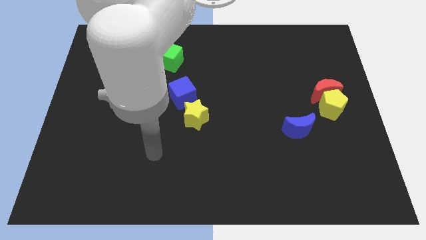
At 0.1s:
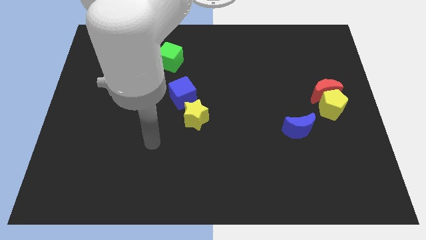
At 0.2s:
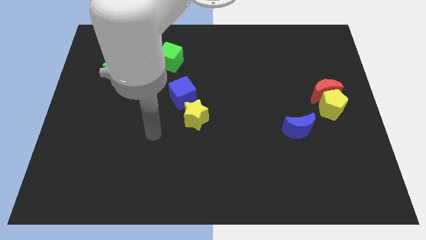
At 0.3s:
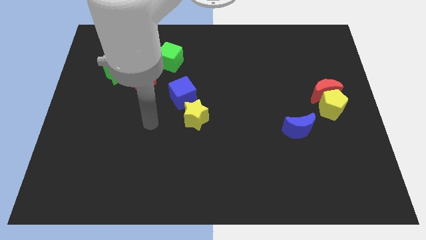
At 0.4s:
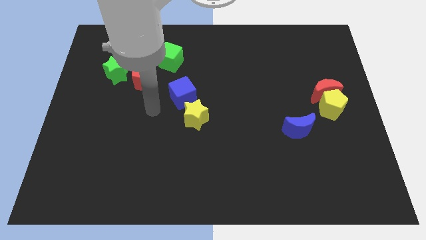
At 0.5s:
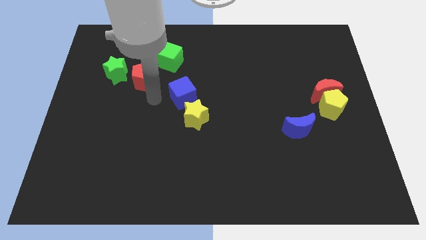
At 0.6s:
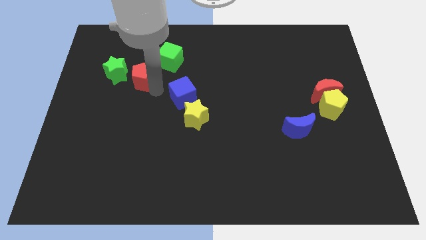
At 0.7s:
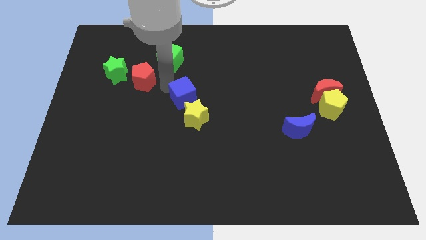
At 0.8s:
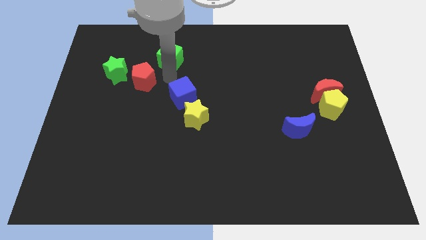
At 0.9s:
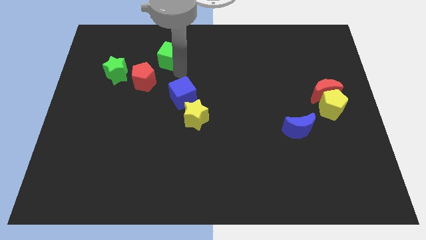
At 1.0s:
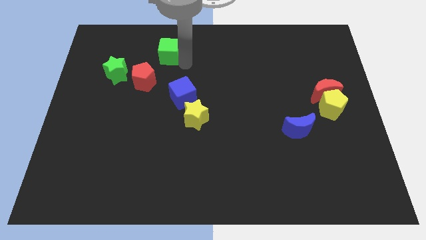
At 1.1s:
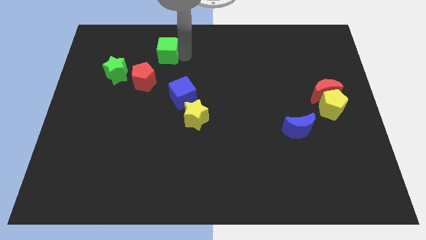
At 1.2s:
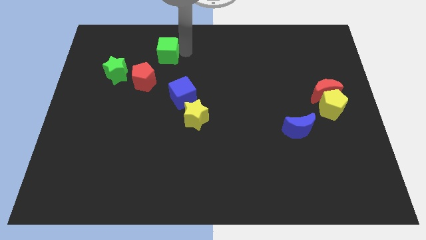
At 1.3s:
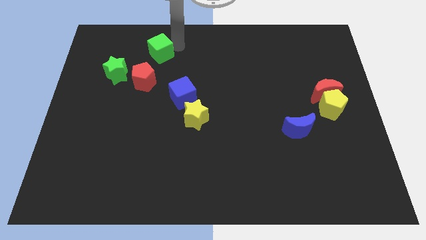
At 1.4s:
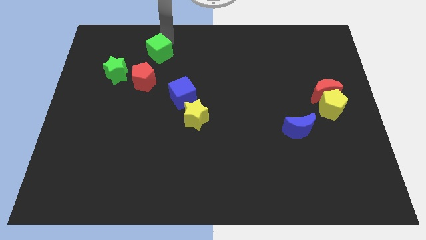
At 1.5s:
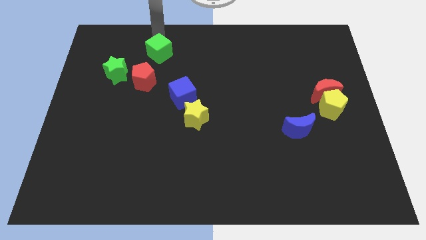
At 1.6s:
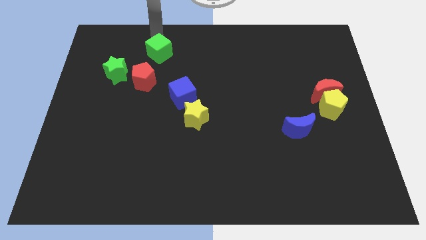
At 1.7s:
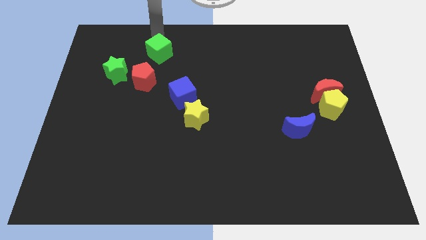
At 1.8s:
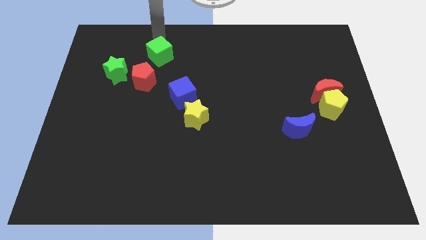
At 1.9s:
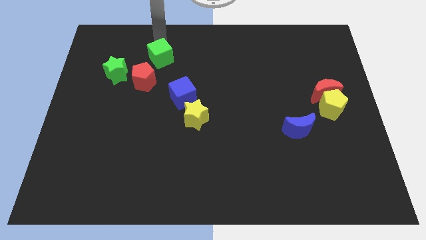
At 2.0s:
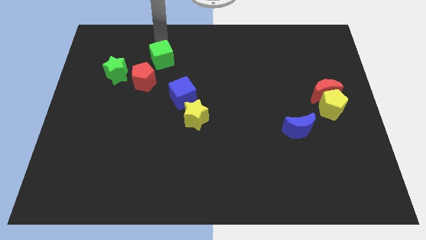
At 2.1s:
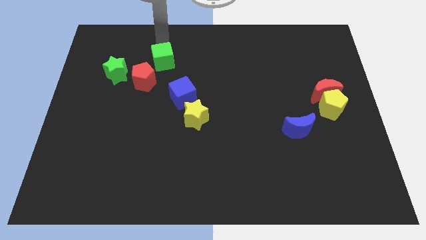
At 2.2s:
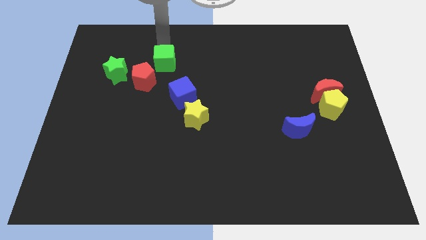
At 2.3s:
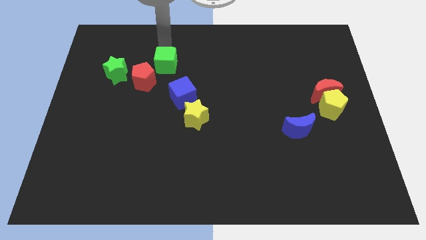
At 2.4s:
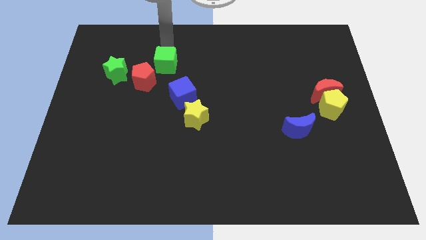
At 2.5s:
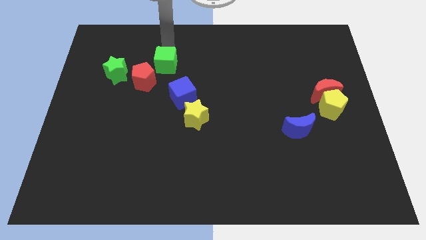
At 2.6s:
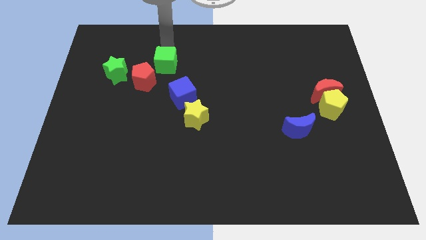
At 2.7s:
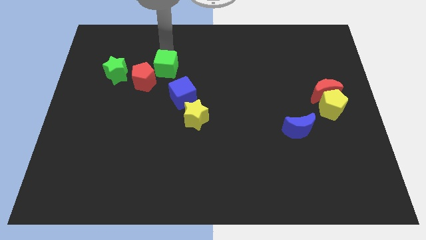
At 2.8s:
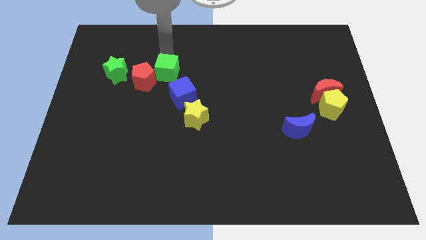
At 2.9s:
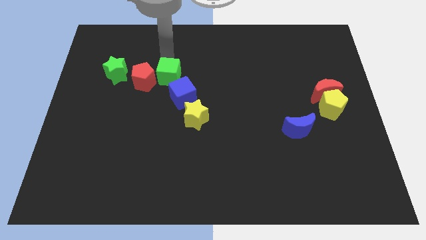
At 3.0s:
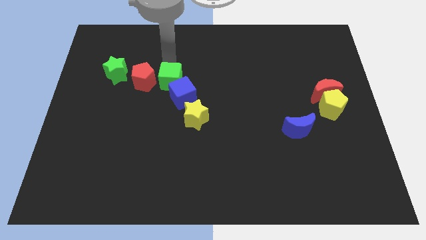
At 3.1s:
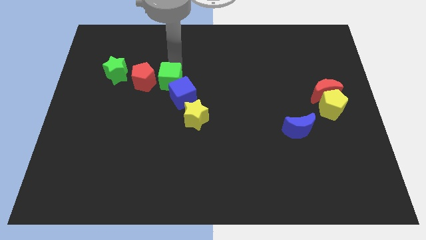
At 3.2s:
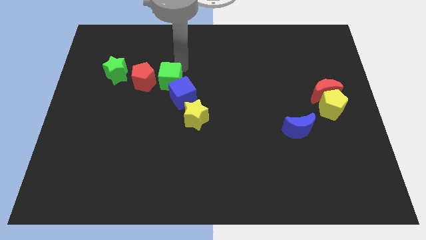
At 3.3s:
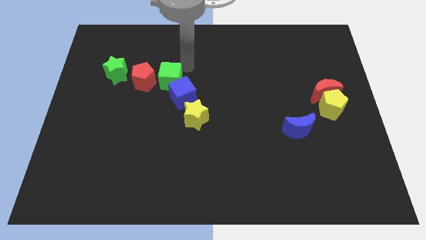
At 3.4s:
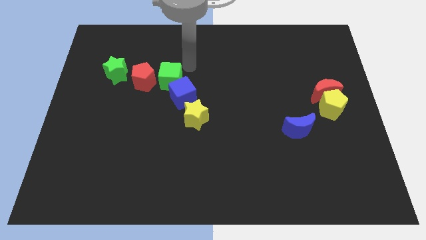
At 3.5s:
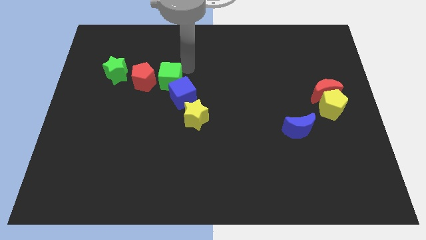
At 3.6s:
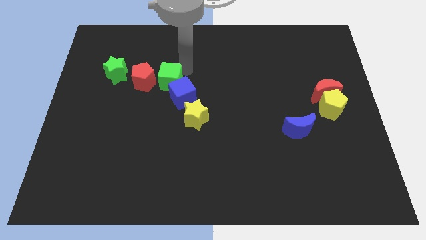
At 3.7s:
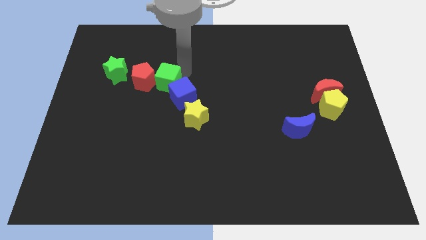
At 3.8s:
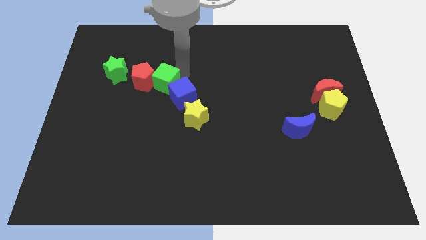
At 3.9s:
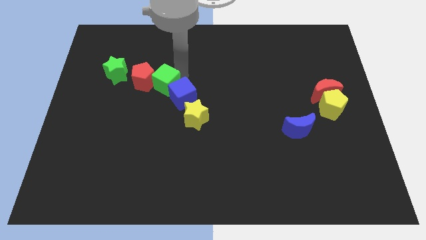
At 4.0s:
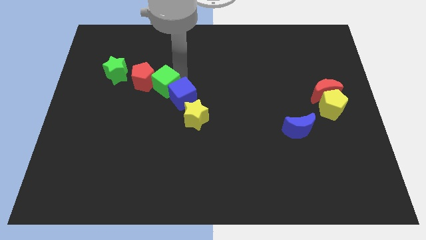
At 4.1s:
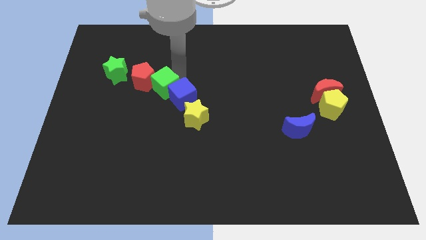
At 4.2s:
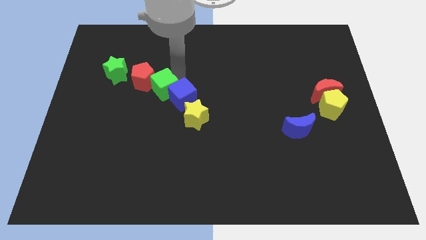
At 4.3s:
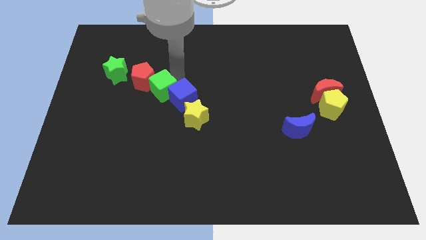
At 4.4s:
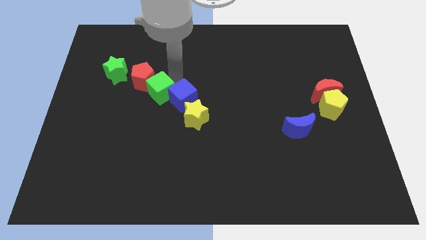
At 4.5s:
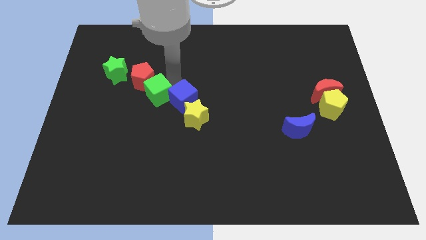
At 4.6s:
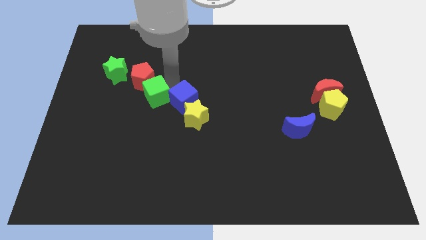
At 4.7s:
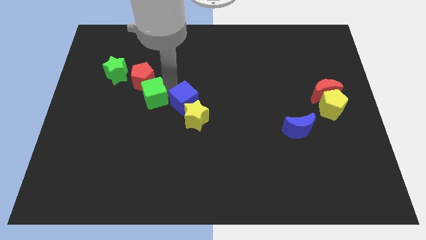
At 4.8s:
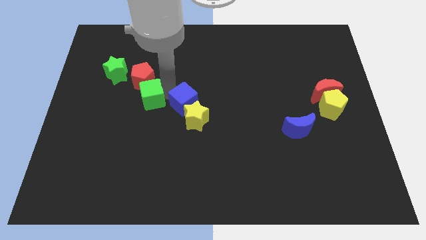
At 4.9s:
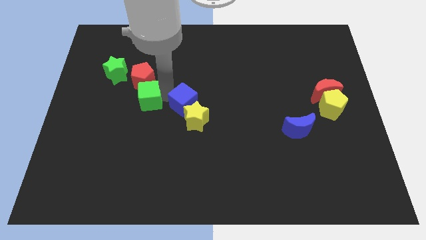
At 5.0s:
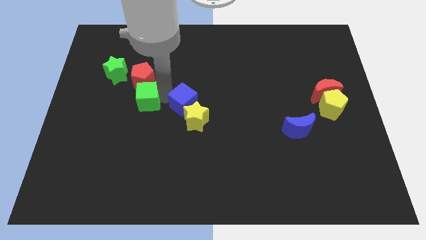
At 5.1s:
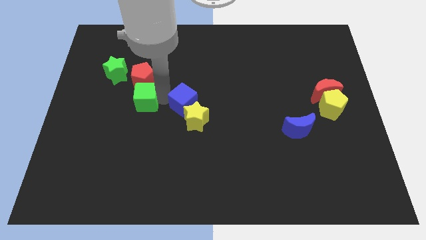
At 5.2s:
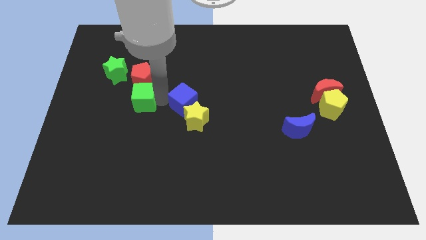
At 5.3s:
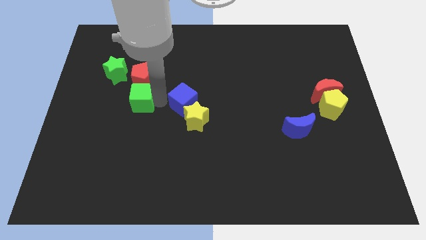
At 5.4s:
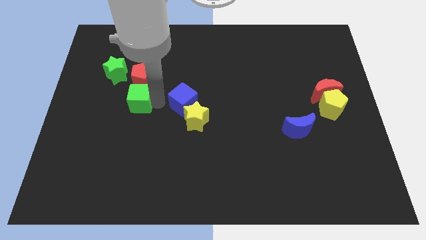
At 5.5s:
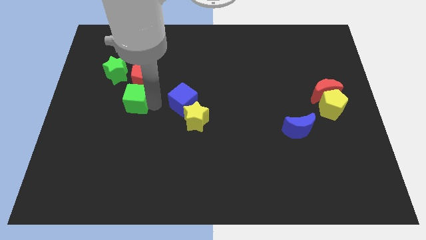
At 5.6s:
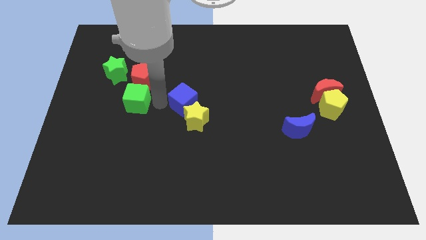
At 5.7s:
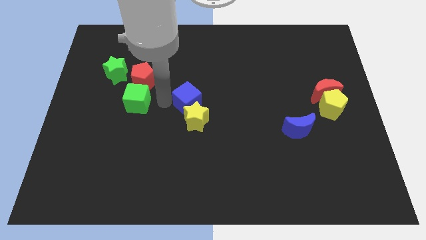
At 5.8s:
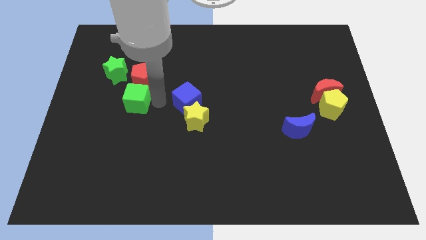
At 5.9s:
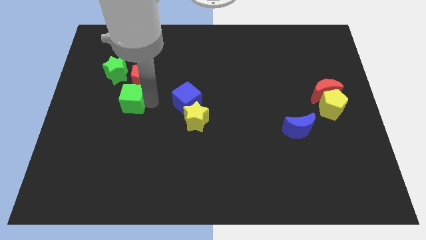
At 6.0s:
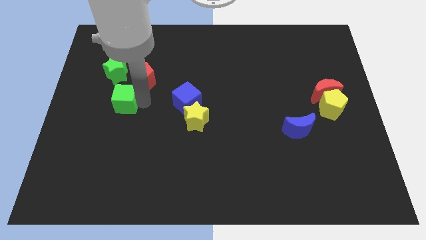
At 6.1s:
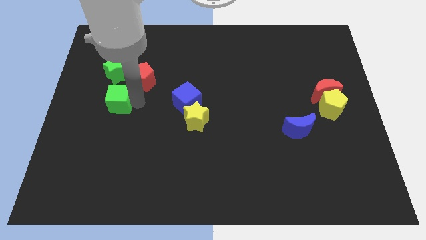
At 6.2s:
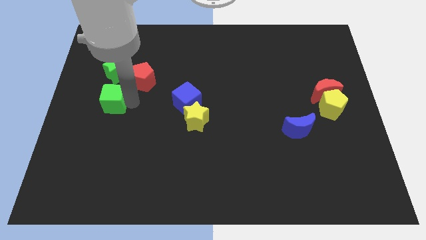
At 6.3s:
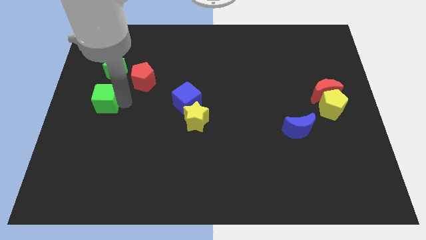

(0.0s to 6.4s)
move the green cube to the left side of the board
